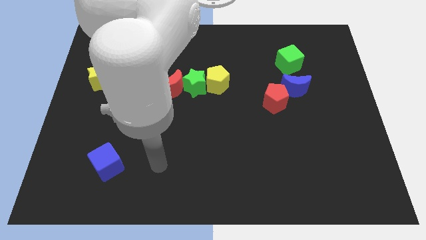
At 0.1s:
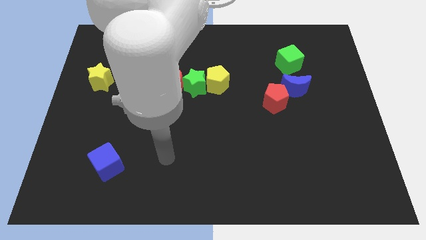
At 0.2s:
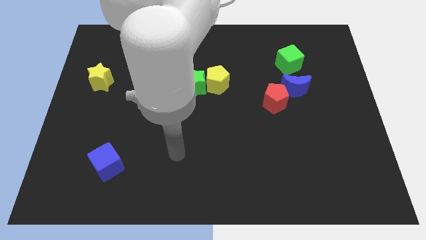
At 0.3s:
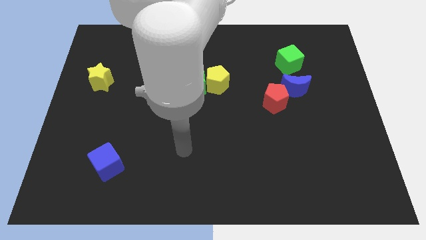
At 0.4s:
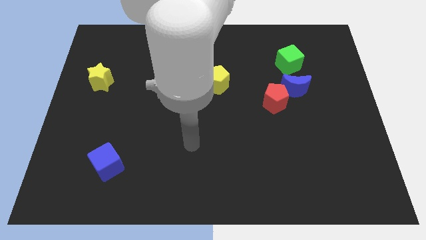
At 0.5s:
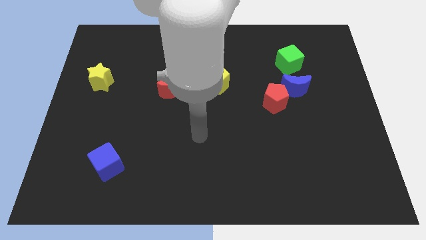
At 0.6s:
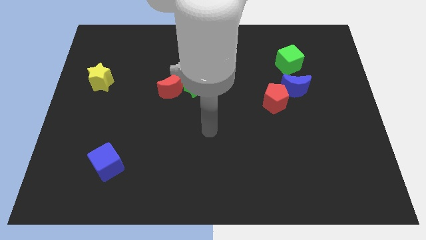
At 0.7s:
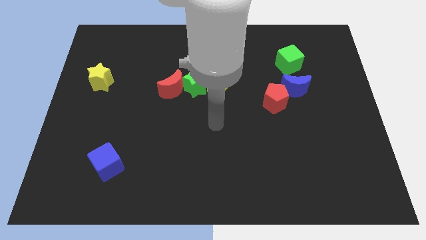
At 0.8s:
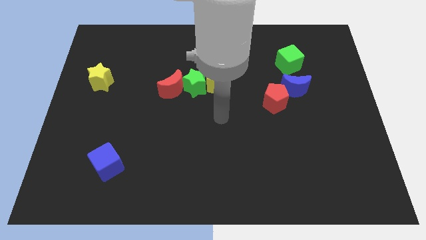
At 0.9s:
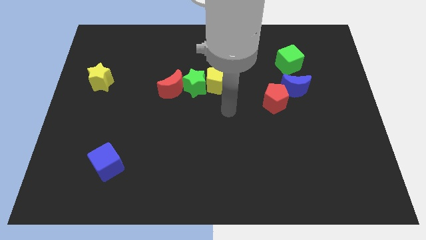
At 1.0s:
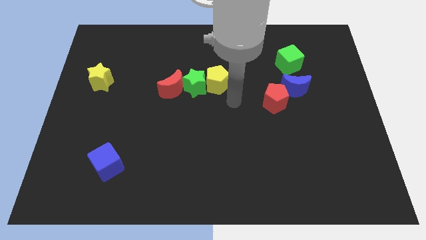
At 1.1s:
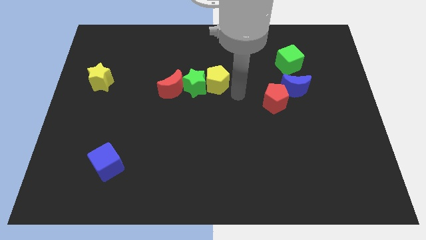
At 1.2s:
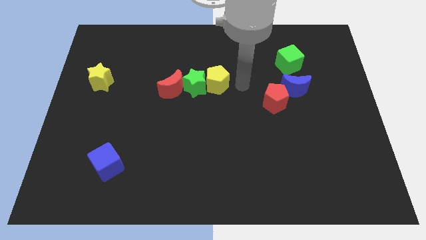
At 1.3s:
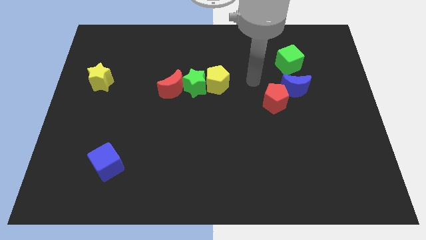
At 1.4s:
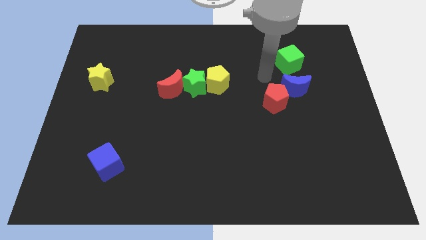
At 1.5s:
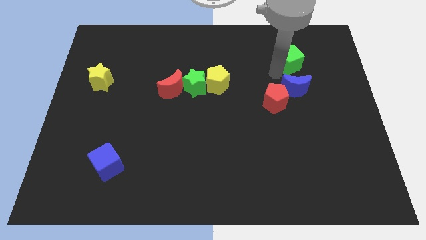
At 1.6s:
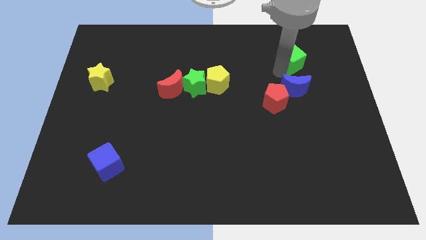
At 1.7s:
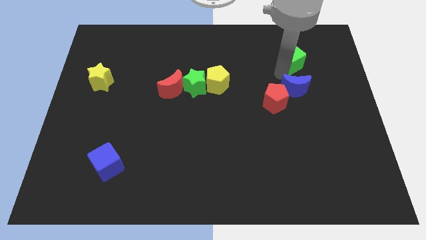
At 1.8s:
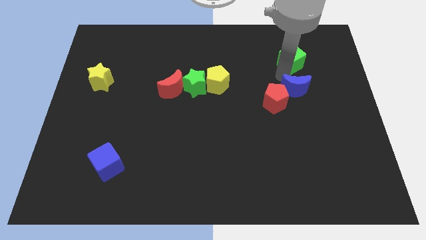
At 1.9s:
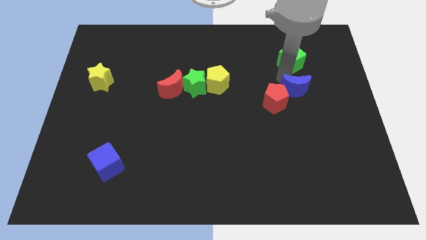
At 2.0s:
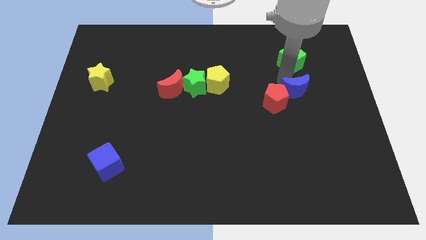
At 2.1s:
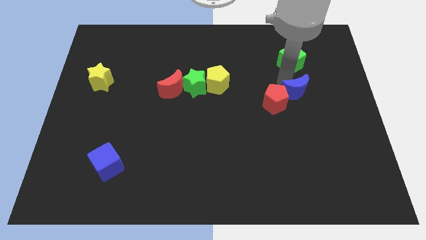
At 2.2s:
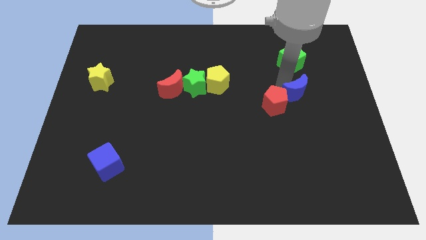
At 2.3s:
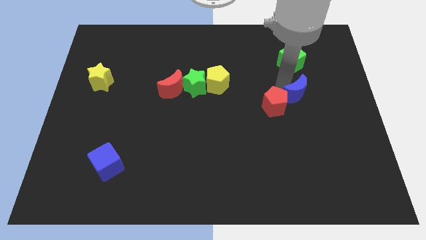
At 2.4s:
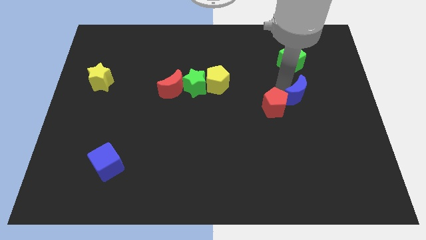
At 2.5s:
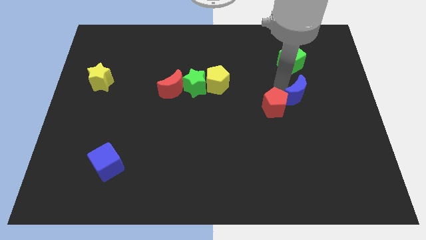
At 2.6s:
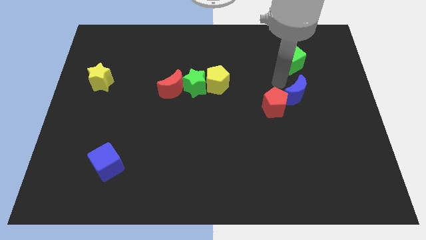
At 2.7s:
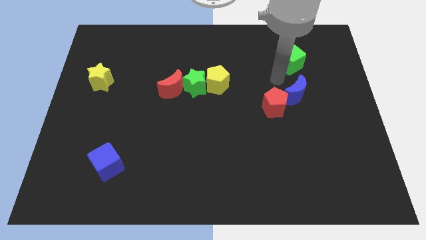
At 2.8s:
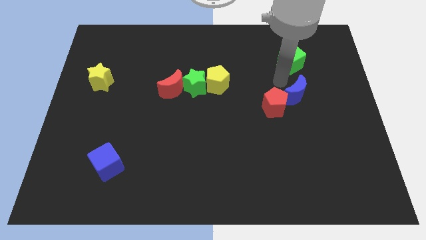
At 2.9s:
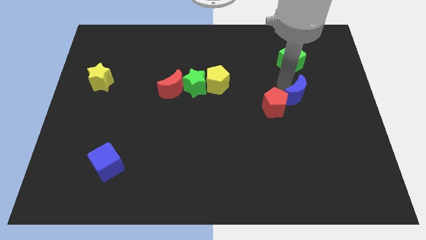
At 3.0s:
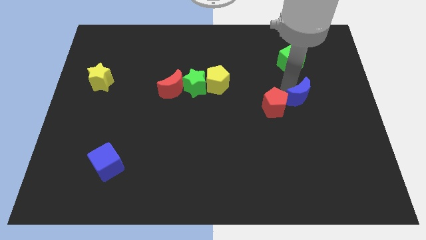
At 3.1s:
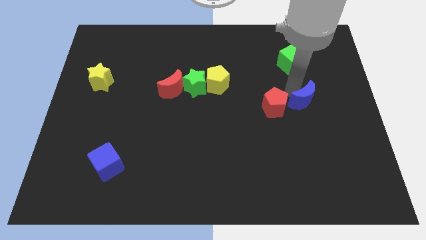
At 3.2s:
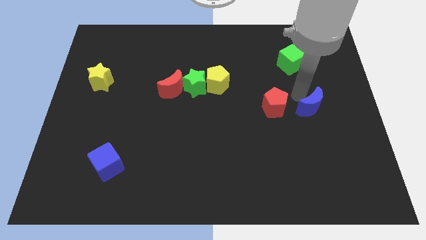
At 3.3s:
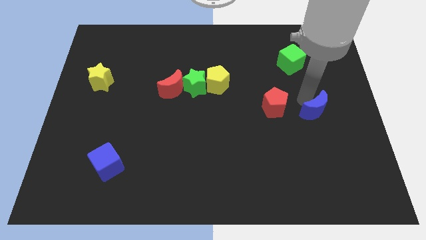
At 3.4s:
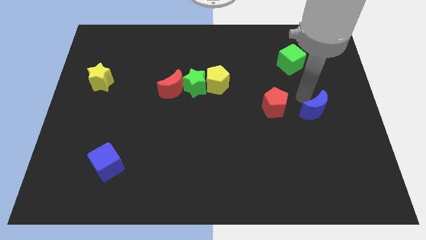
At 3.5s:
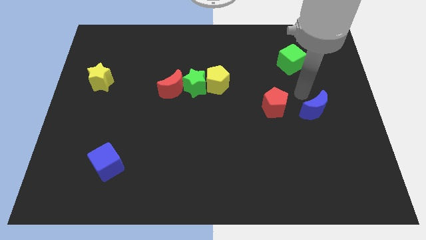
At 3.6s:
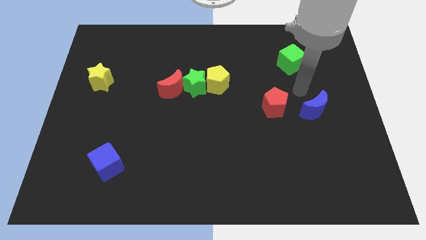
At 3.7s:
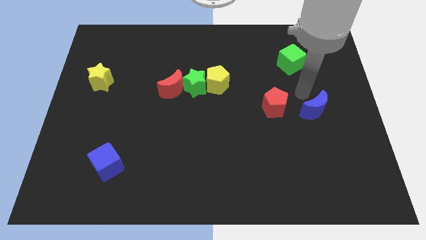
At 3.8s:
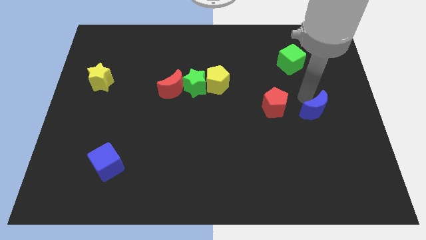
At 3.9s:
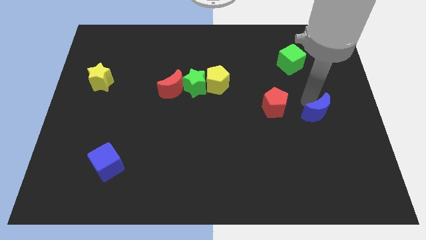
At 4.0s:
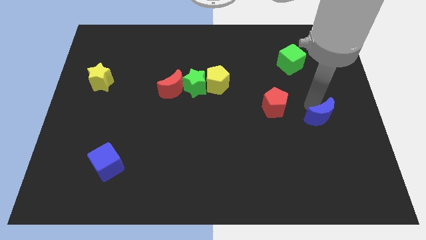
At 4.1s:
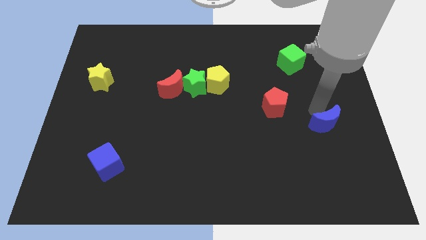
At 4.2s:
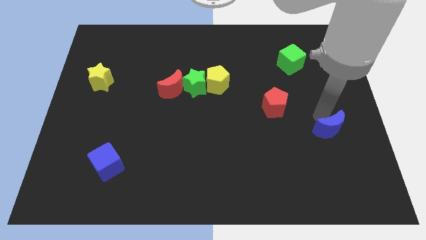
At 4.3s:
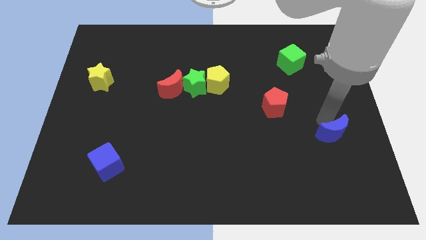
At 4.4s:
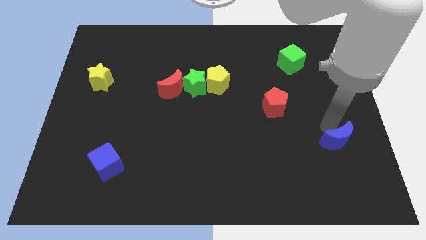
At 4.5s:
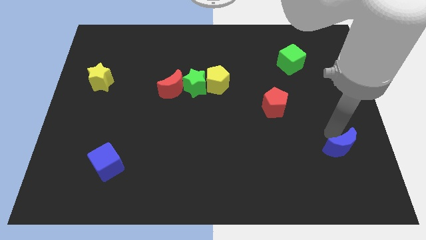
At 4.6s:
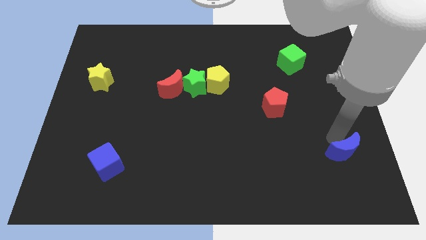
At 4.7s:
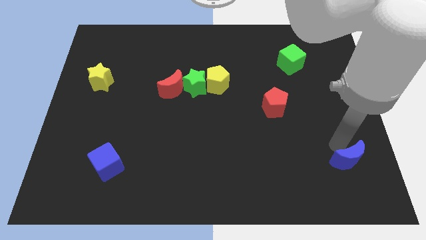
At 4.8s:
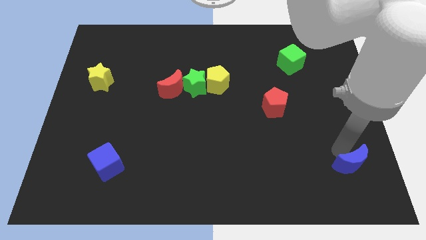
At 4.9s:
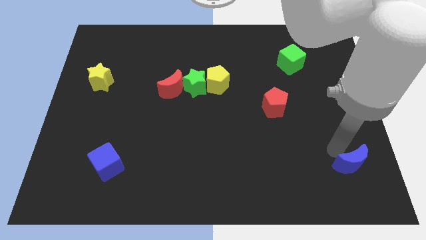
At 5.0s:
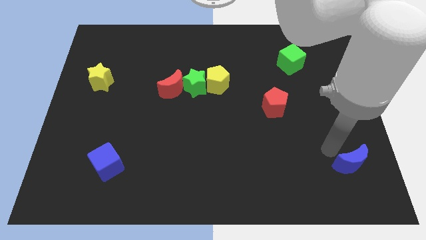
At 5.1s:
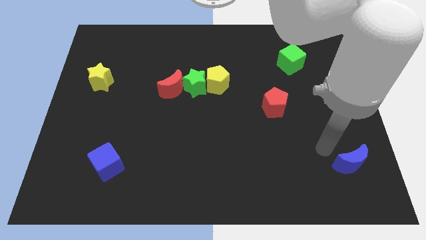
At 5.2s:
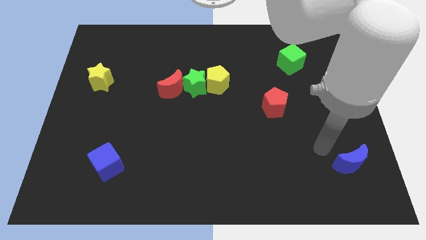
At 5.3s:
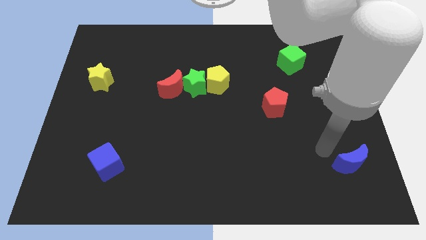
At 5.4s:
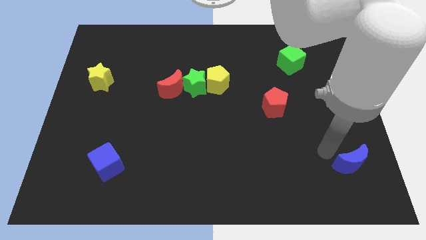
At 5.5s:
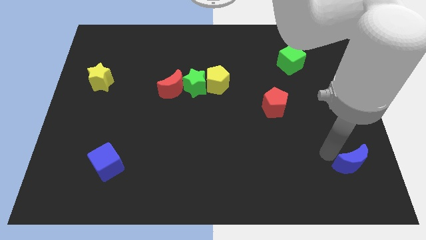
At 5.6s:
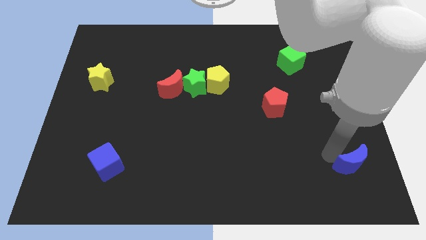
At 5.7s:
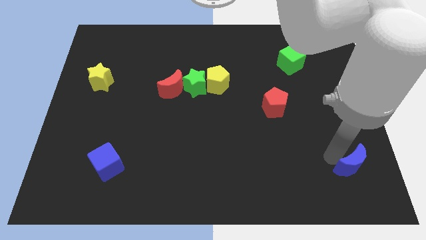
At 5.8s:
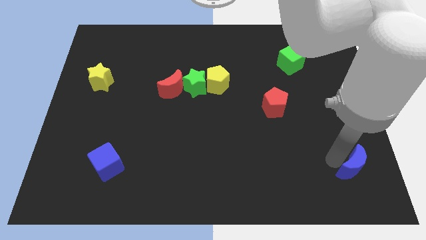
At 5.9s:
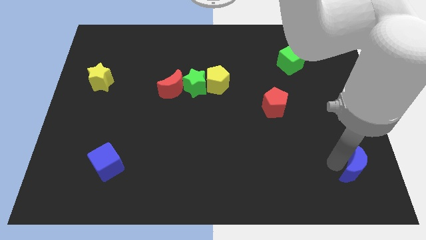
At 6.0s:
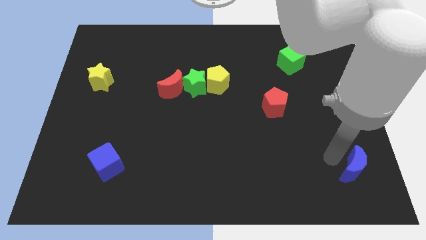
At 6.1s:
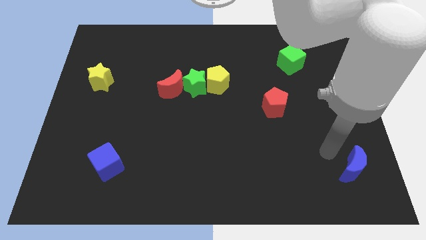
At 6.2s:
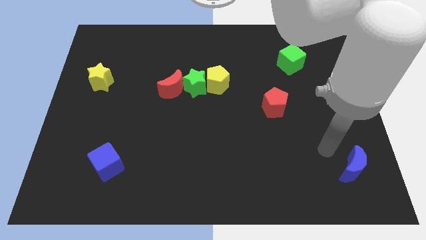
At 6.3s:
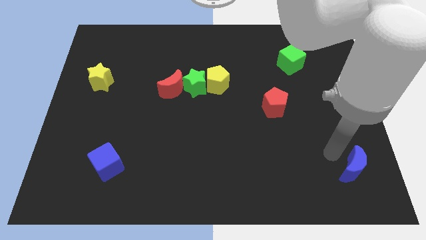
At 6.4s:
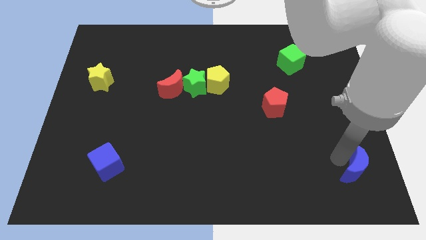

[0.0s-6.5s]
push the blue moon to the bottom right corner
